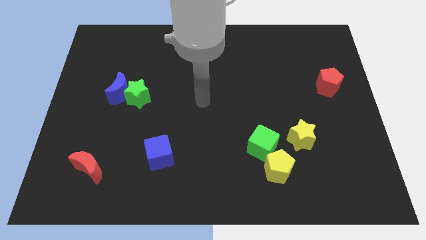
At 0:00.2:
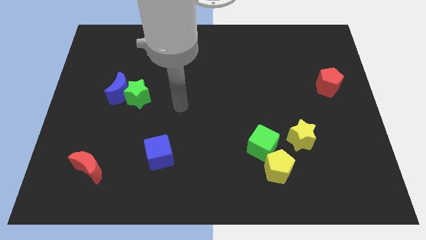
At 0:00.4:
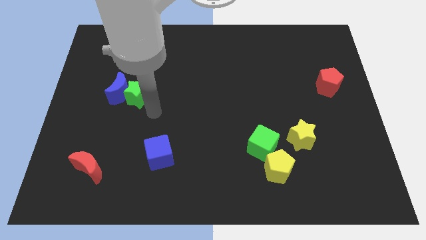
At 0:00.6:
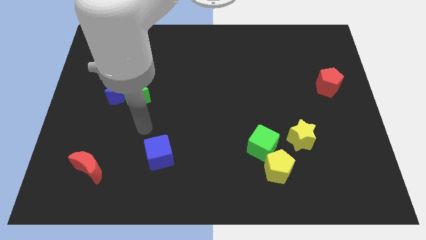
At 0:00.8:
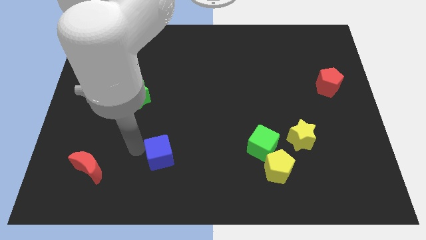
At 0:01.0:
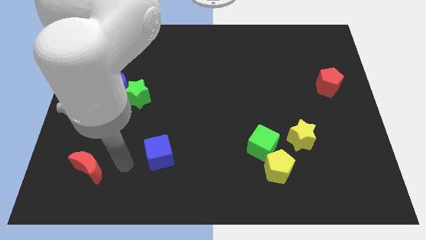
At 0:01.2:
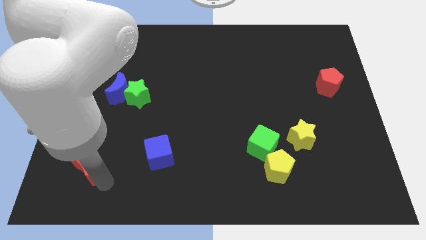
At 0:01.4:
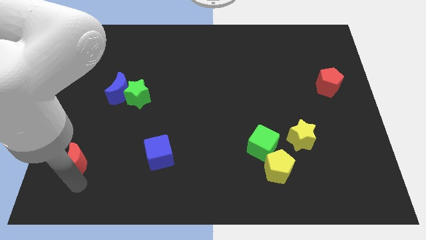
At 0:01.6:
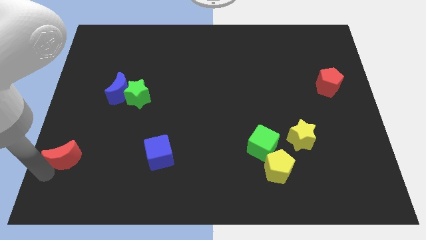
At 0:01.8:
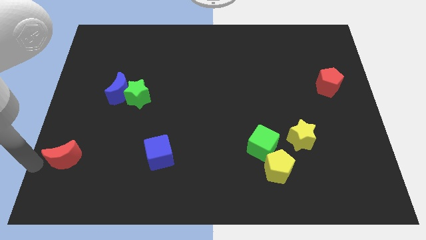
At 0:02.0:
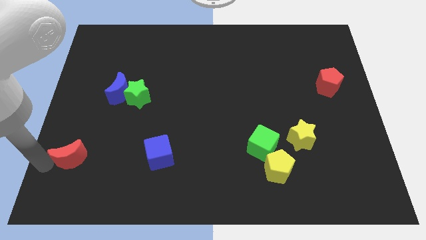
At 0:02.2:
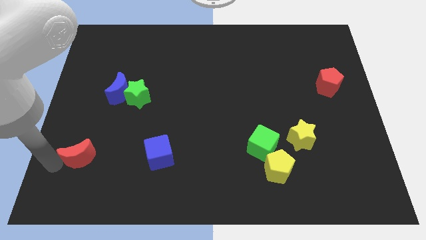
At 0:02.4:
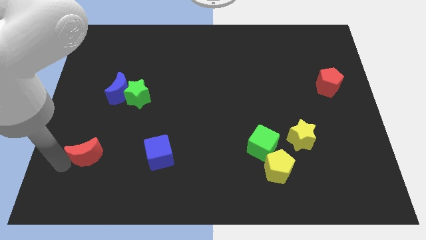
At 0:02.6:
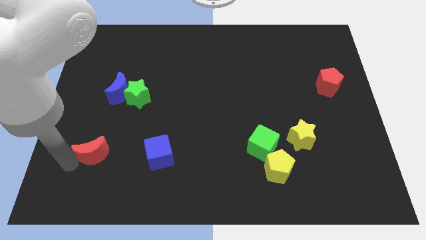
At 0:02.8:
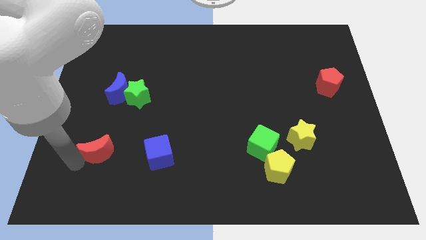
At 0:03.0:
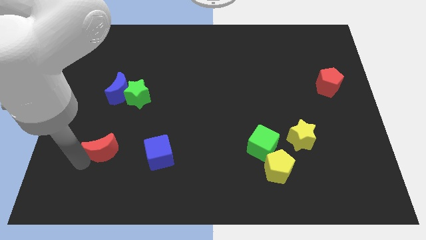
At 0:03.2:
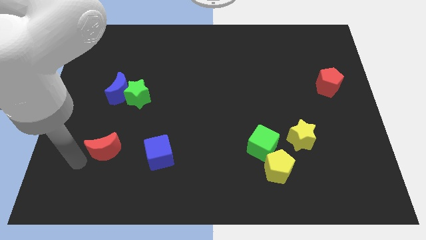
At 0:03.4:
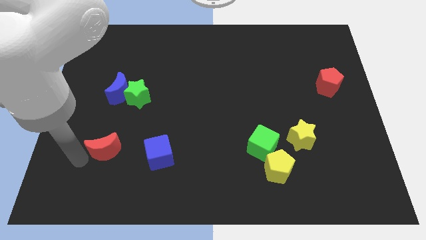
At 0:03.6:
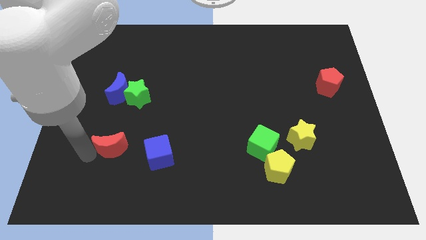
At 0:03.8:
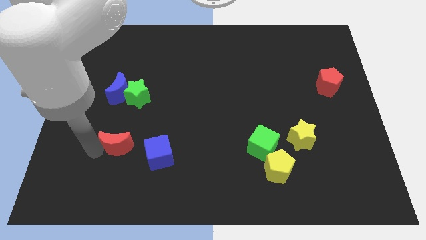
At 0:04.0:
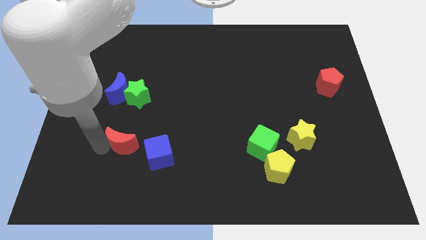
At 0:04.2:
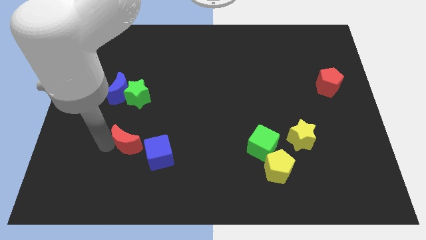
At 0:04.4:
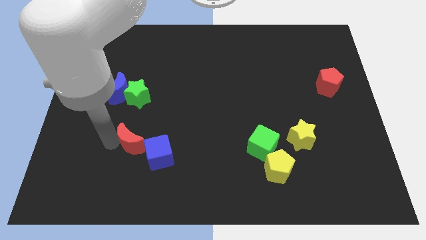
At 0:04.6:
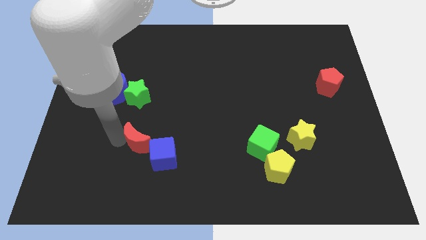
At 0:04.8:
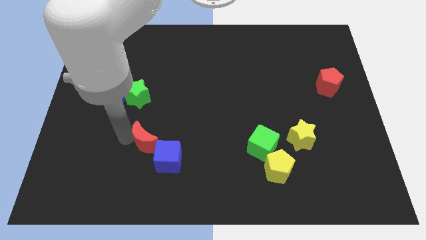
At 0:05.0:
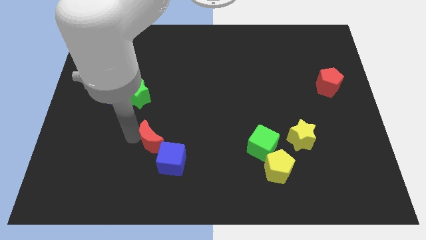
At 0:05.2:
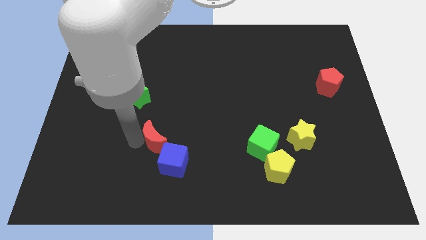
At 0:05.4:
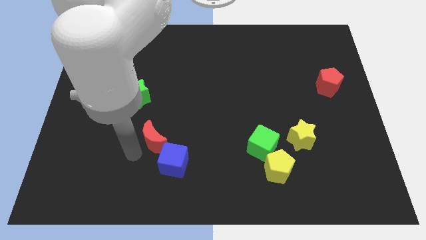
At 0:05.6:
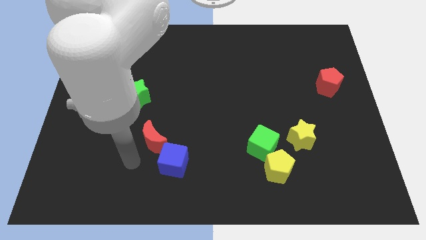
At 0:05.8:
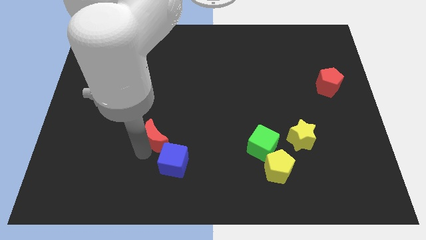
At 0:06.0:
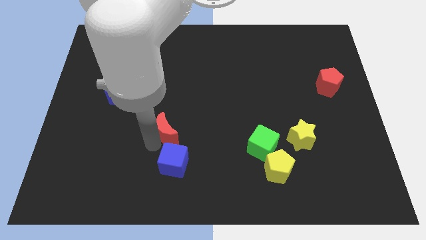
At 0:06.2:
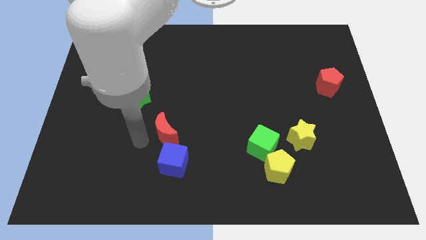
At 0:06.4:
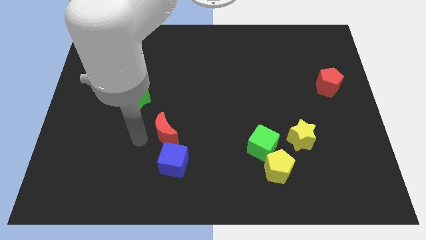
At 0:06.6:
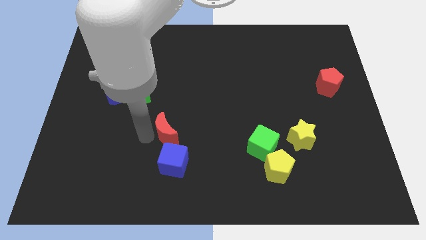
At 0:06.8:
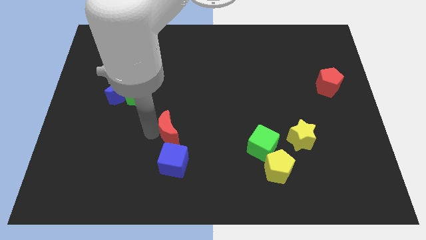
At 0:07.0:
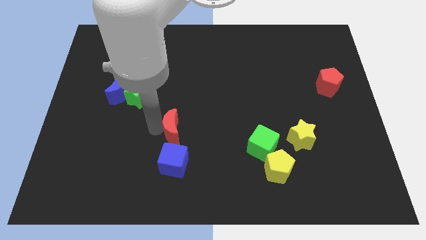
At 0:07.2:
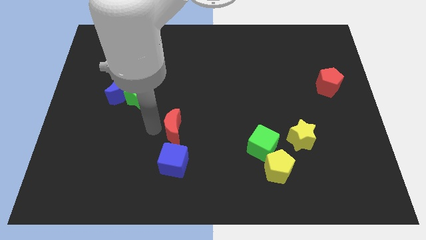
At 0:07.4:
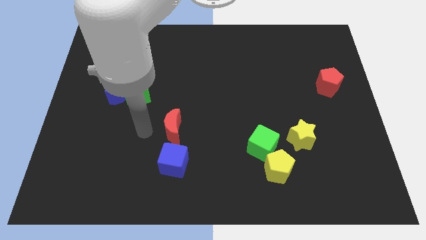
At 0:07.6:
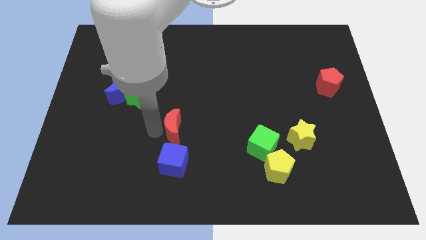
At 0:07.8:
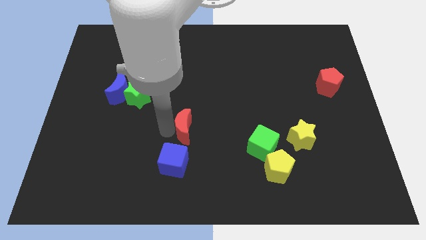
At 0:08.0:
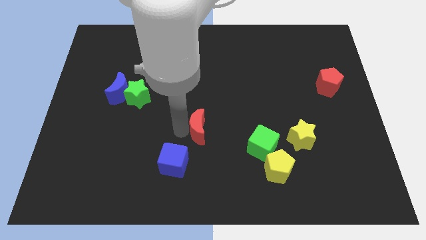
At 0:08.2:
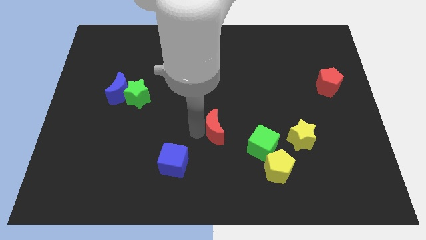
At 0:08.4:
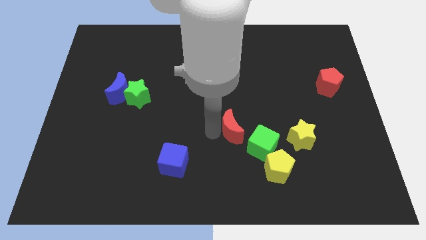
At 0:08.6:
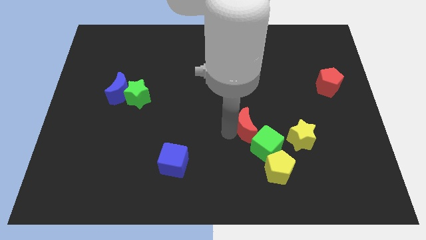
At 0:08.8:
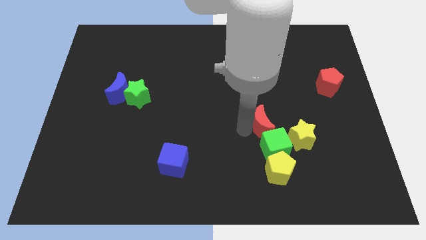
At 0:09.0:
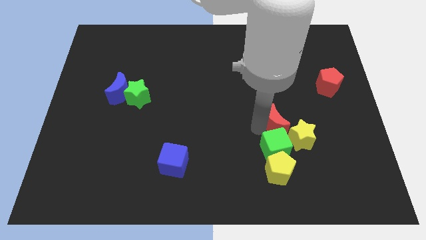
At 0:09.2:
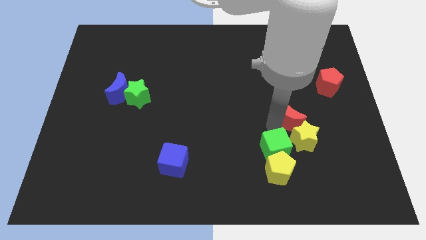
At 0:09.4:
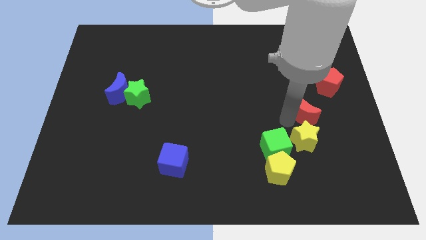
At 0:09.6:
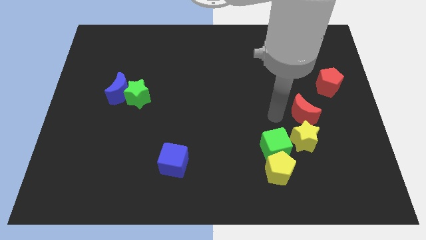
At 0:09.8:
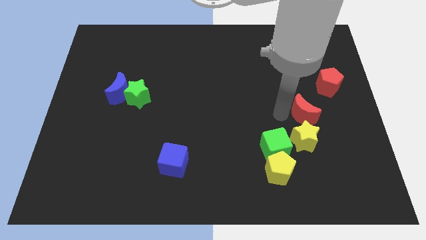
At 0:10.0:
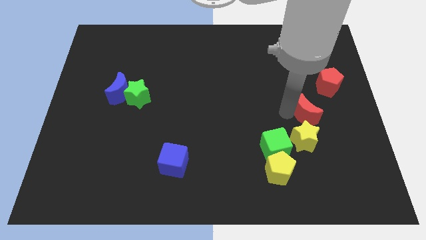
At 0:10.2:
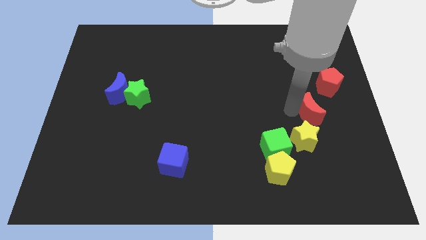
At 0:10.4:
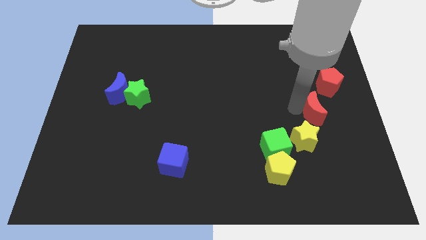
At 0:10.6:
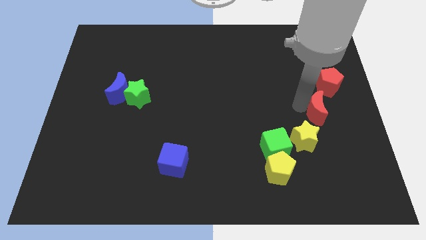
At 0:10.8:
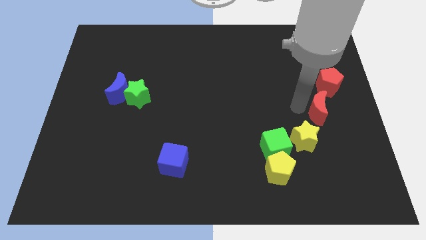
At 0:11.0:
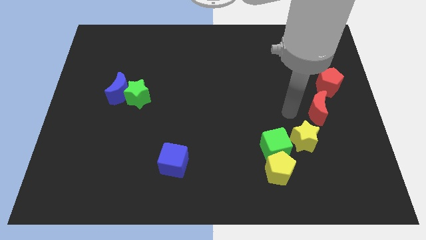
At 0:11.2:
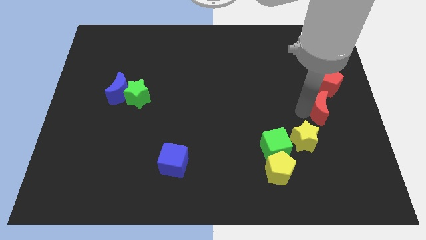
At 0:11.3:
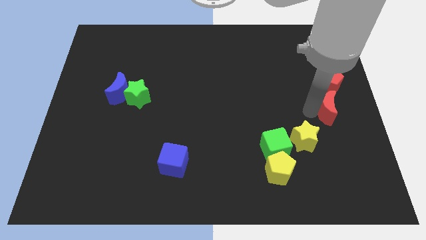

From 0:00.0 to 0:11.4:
put the red moon to the right side of the board

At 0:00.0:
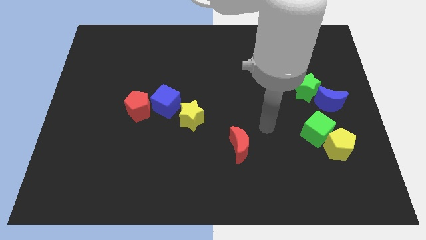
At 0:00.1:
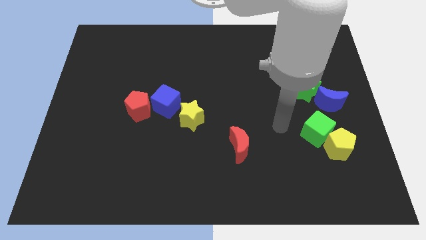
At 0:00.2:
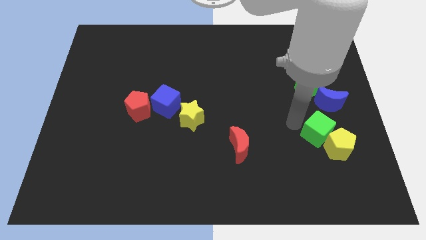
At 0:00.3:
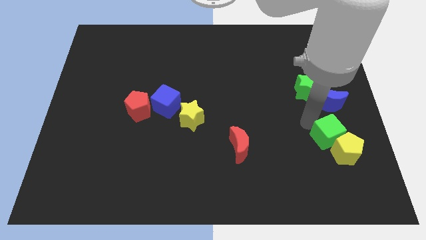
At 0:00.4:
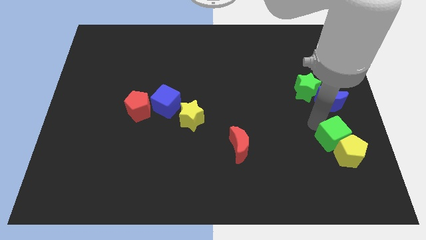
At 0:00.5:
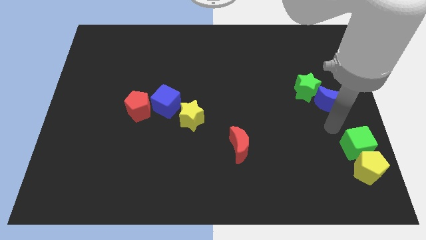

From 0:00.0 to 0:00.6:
push the yellow pentagon to the lower right corner
